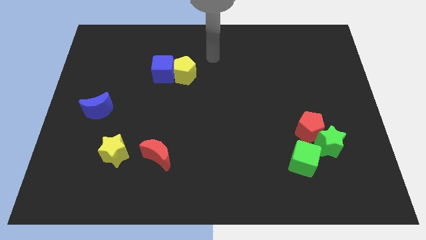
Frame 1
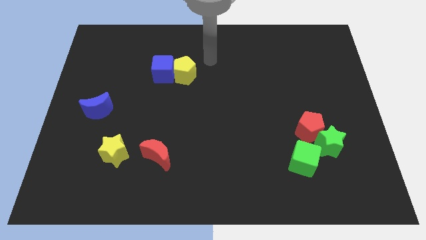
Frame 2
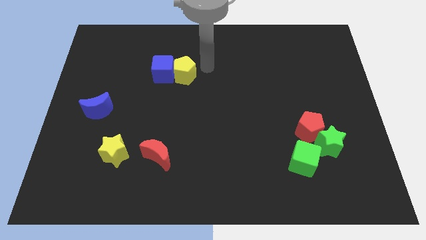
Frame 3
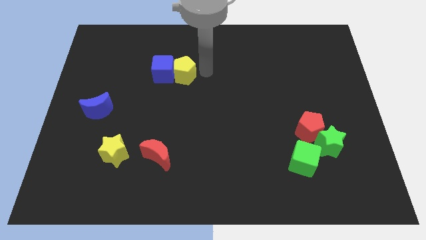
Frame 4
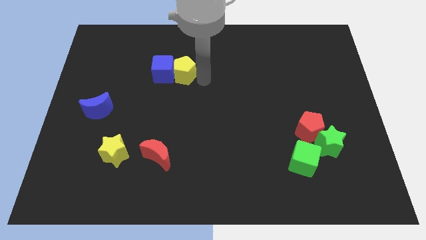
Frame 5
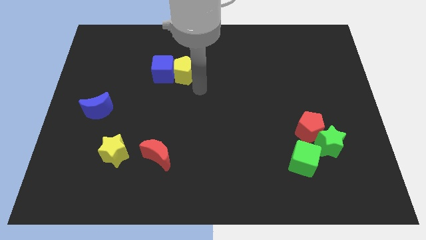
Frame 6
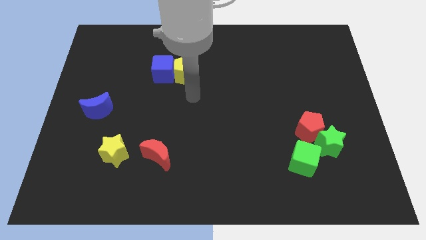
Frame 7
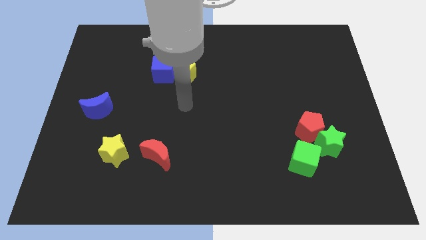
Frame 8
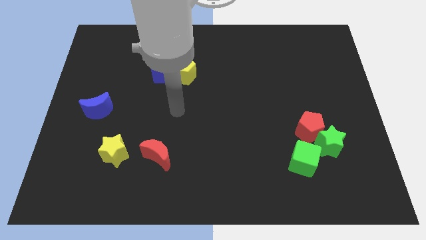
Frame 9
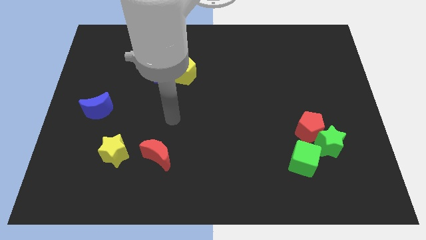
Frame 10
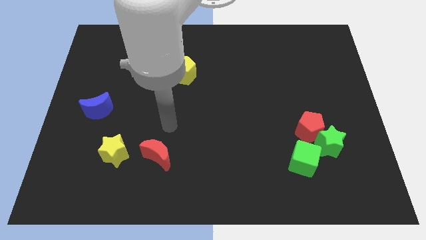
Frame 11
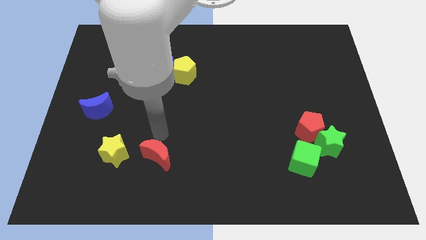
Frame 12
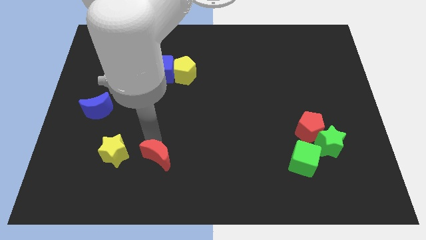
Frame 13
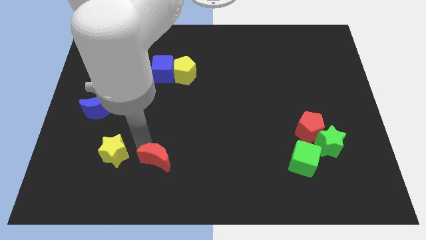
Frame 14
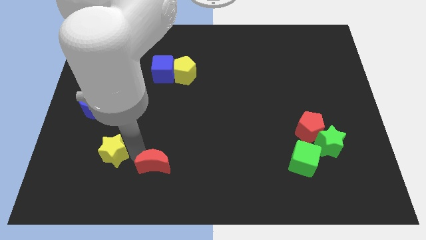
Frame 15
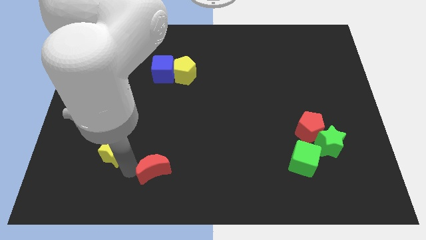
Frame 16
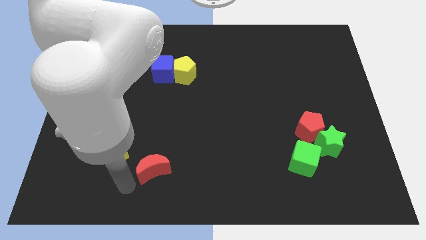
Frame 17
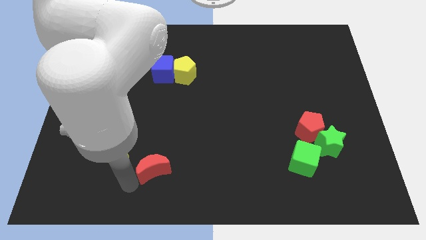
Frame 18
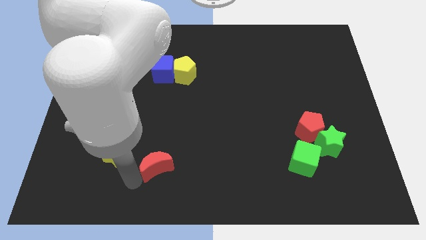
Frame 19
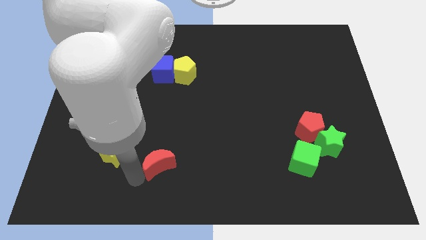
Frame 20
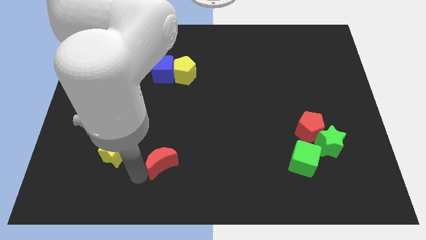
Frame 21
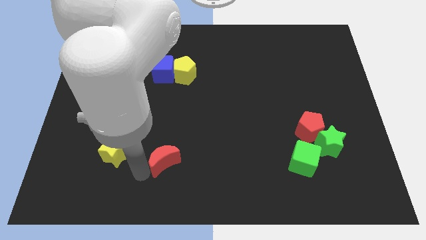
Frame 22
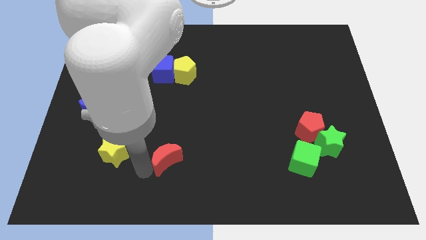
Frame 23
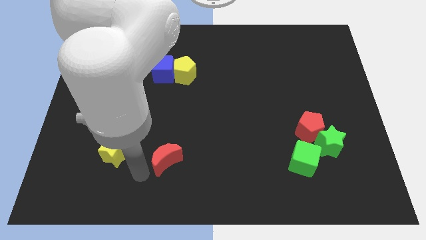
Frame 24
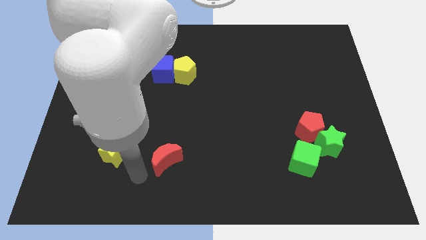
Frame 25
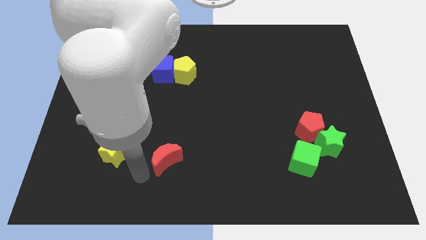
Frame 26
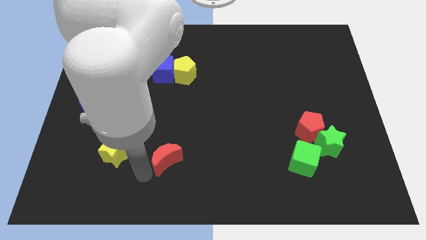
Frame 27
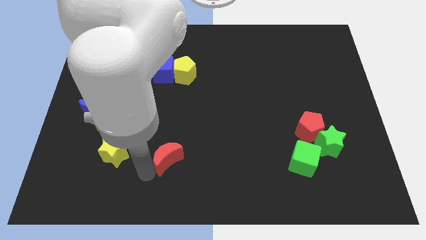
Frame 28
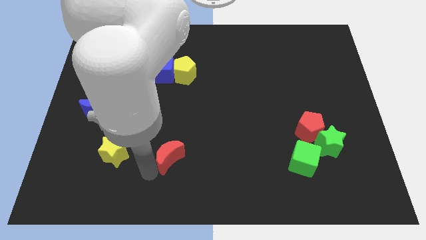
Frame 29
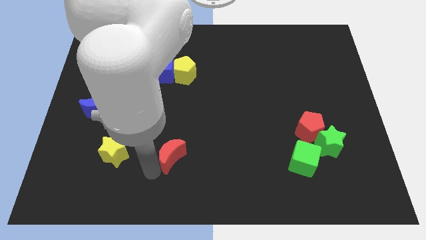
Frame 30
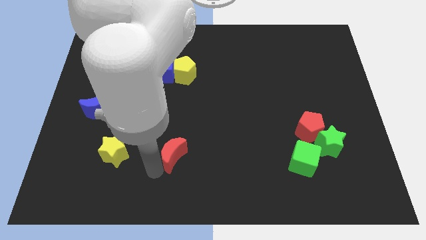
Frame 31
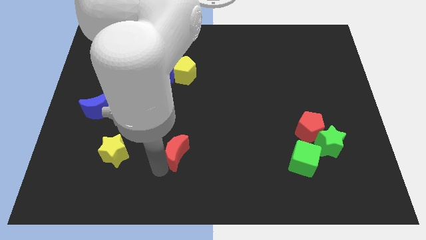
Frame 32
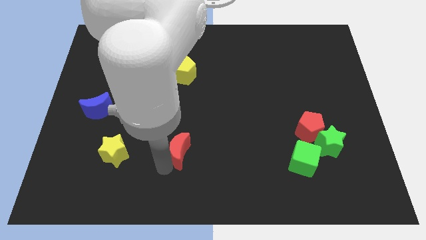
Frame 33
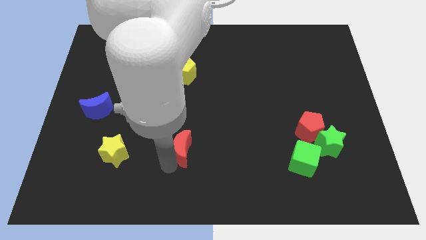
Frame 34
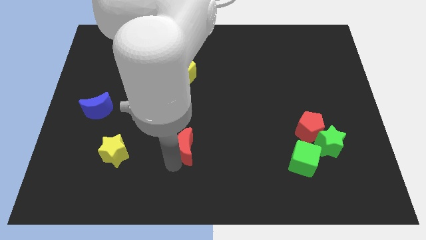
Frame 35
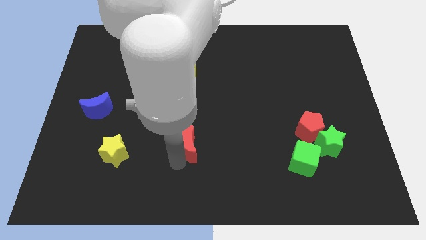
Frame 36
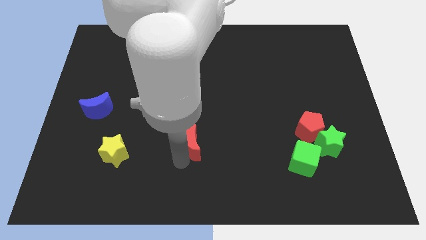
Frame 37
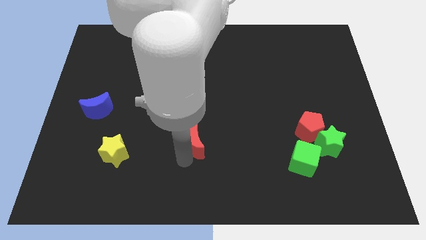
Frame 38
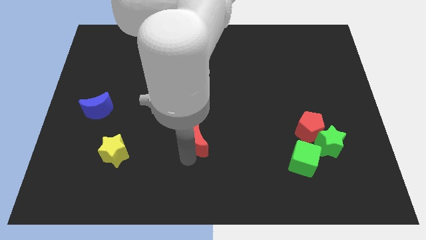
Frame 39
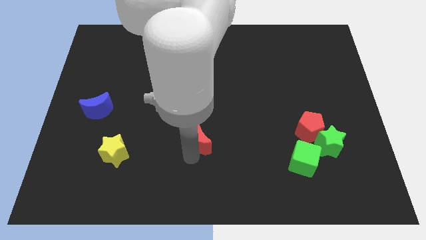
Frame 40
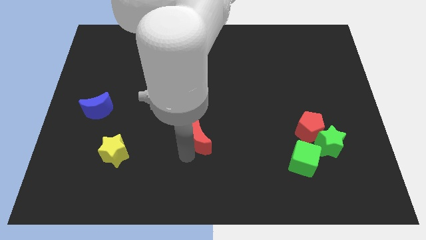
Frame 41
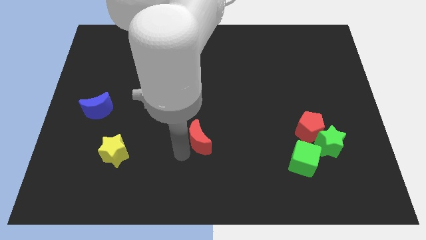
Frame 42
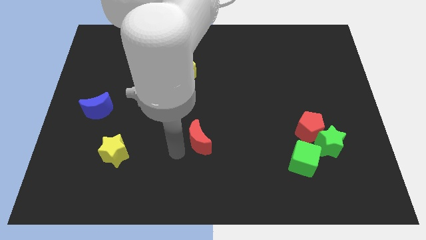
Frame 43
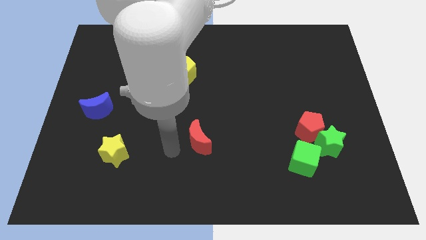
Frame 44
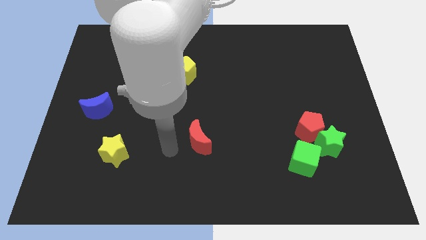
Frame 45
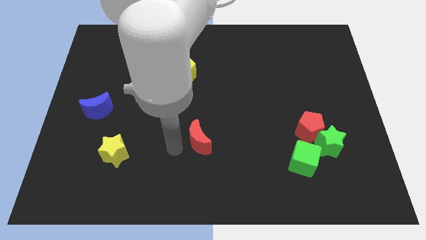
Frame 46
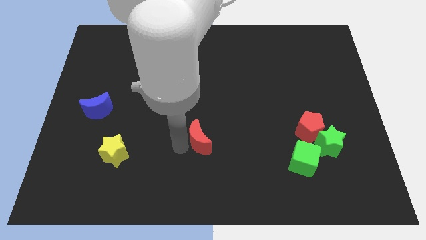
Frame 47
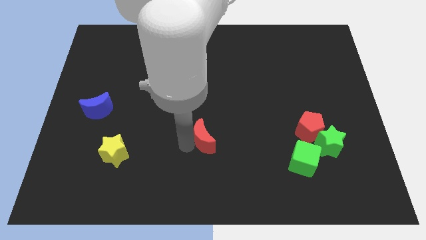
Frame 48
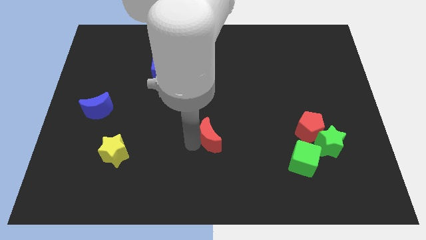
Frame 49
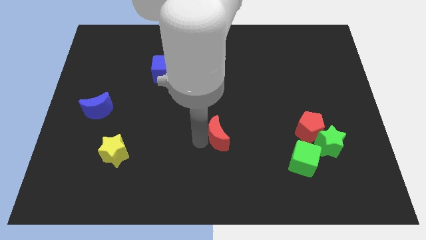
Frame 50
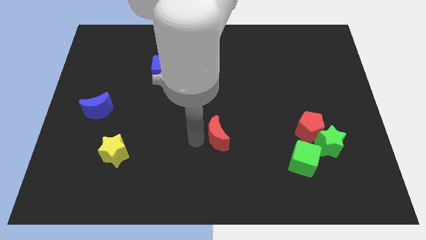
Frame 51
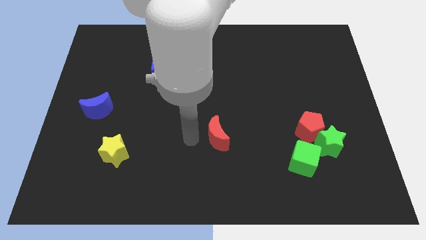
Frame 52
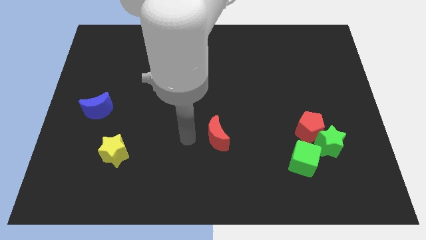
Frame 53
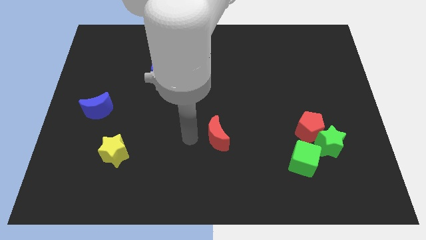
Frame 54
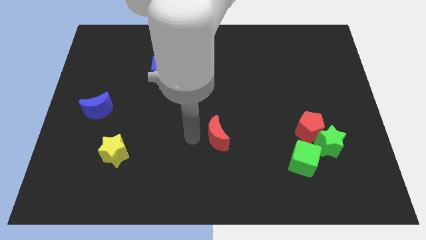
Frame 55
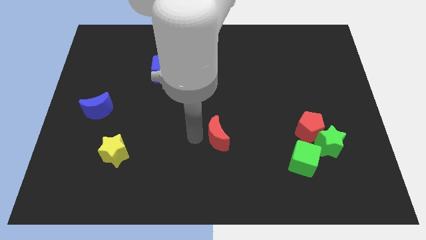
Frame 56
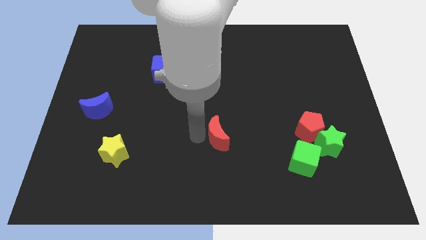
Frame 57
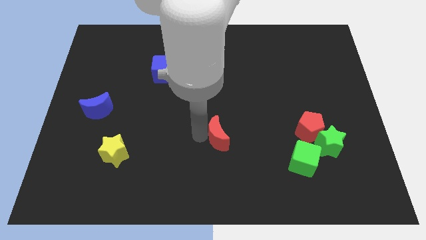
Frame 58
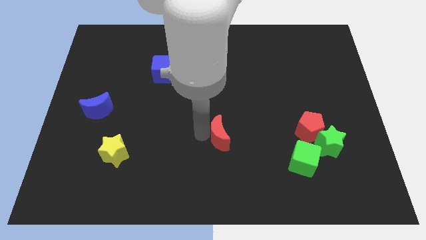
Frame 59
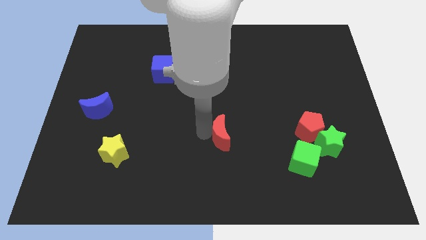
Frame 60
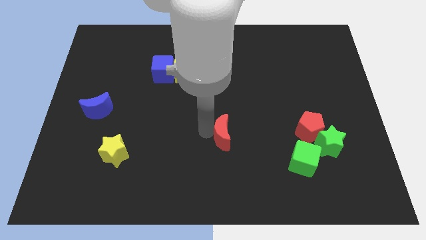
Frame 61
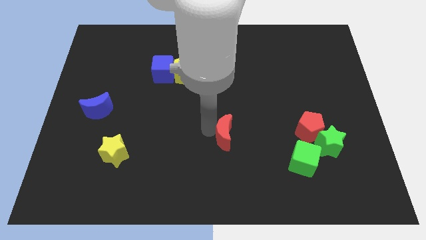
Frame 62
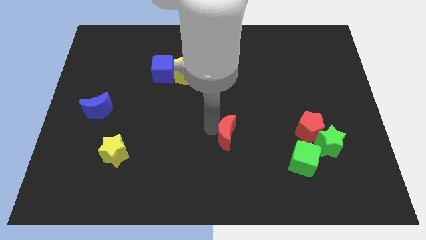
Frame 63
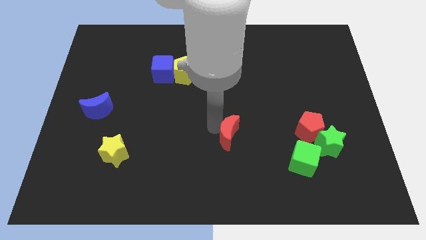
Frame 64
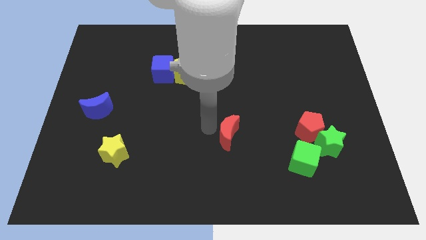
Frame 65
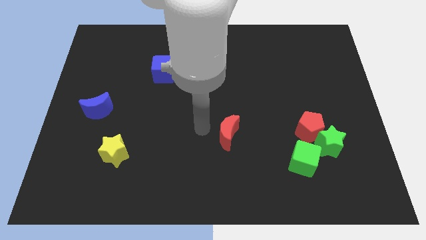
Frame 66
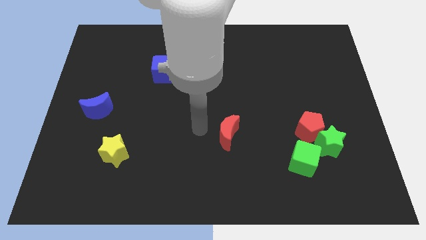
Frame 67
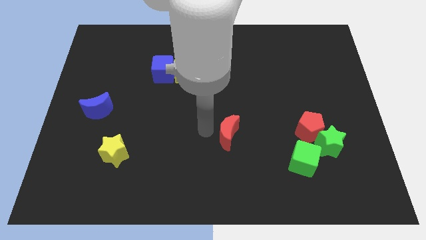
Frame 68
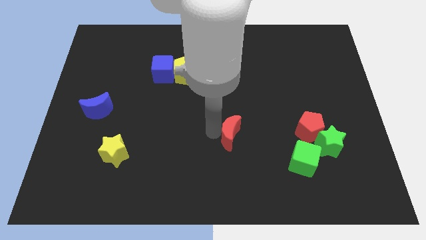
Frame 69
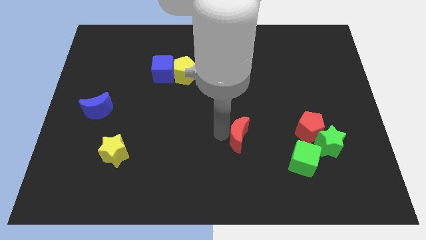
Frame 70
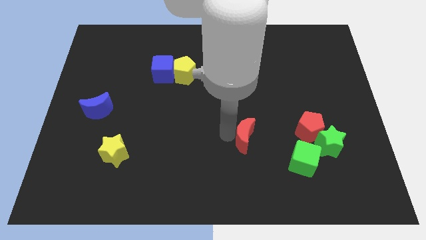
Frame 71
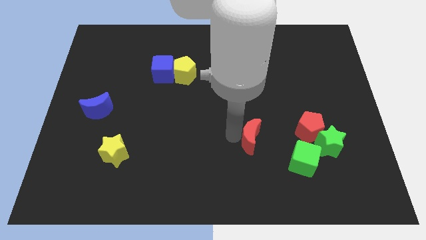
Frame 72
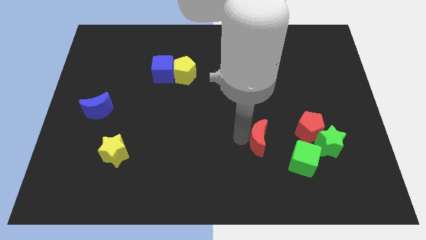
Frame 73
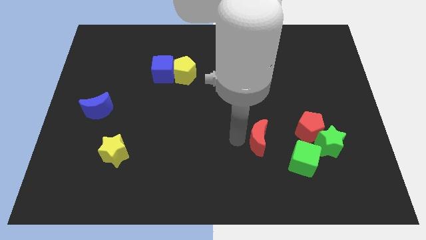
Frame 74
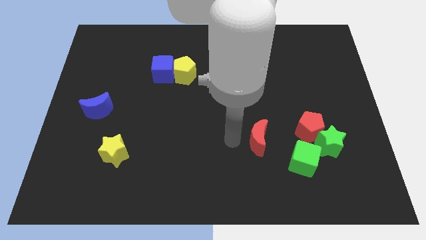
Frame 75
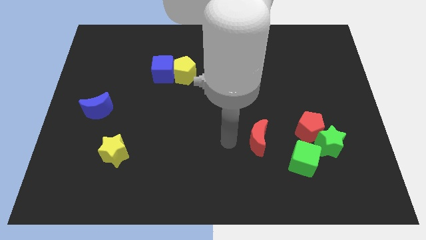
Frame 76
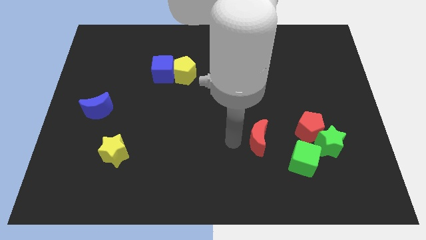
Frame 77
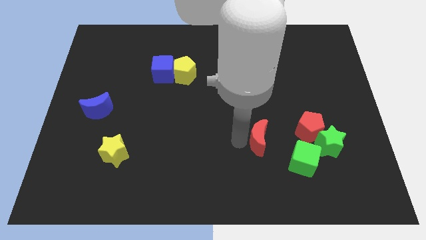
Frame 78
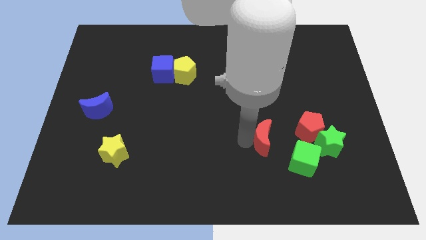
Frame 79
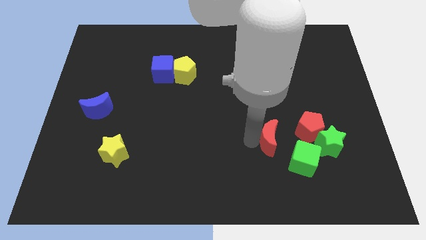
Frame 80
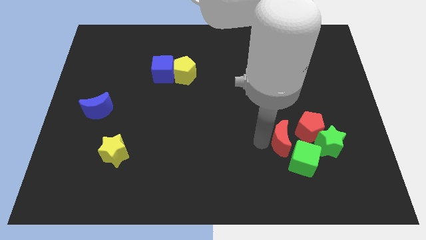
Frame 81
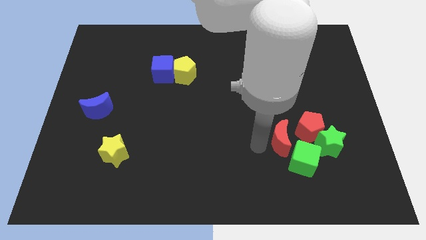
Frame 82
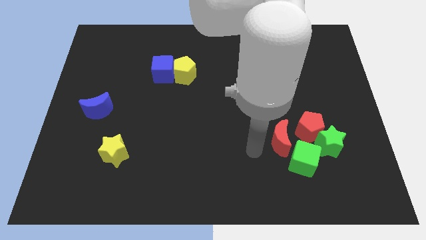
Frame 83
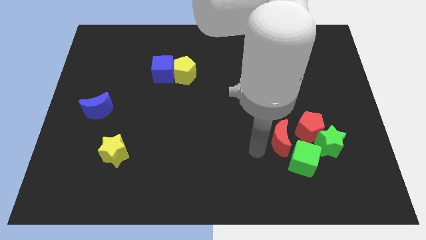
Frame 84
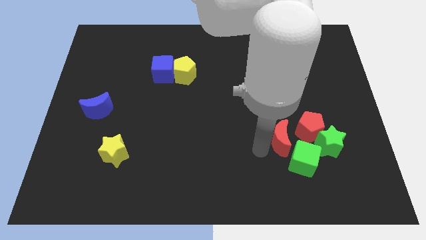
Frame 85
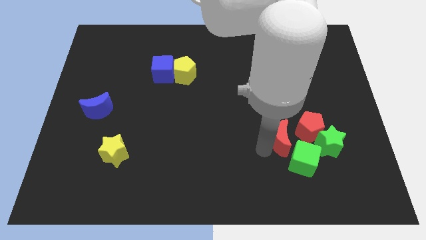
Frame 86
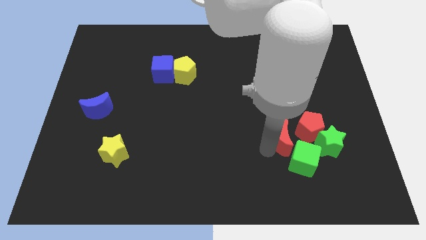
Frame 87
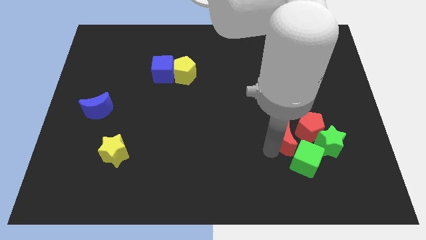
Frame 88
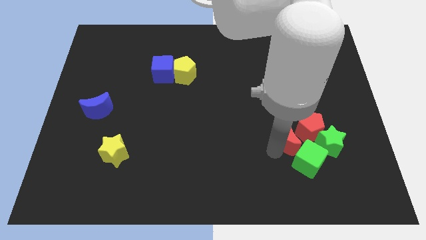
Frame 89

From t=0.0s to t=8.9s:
put the red moon next to the red pentagon
